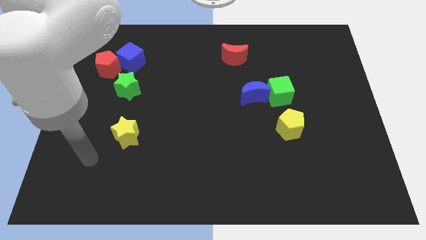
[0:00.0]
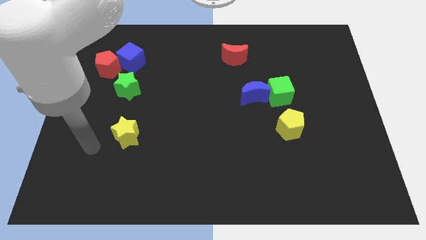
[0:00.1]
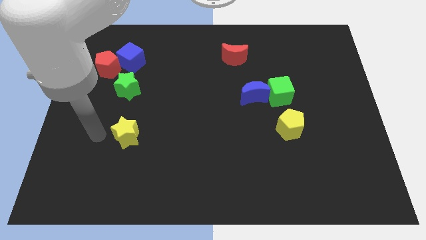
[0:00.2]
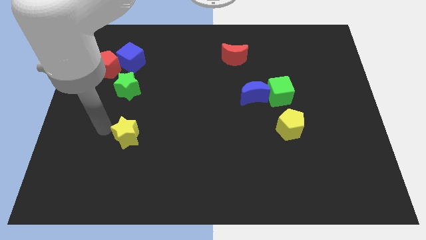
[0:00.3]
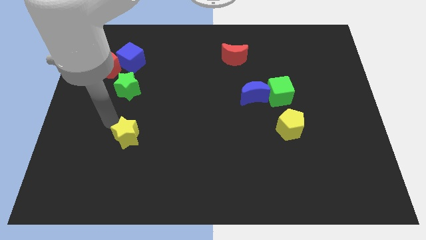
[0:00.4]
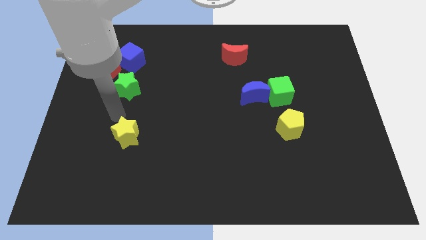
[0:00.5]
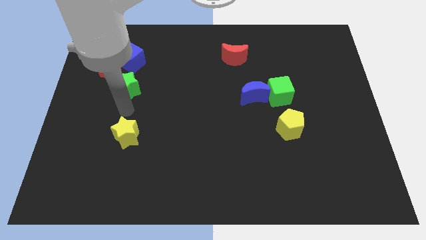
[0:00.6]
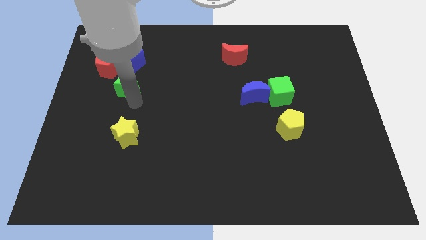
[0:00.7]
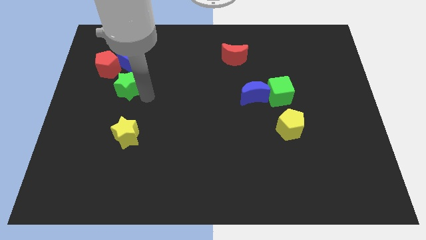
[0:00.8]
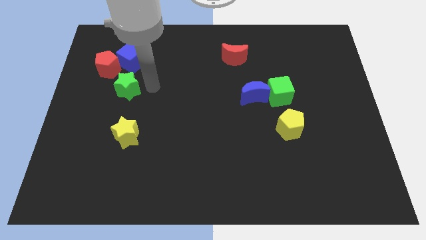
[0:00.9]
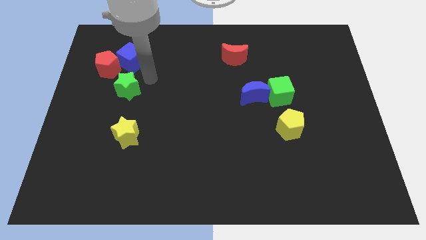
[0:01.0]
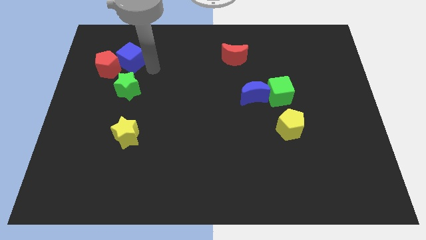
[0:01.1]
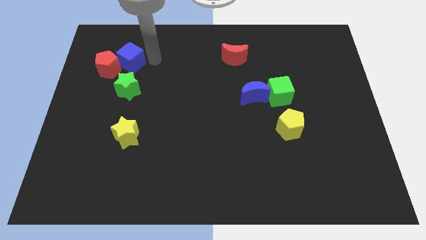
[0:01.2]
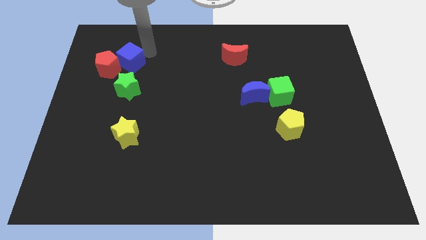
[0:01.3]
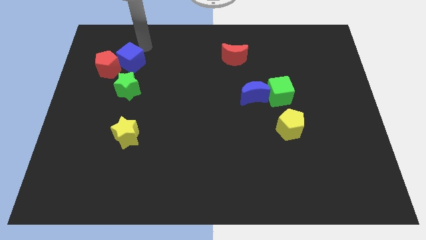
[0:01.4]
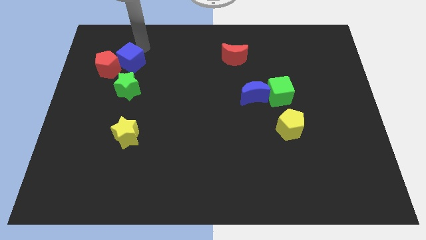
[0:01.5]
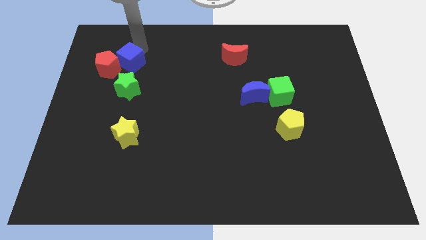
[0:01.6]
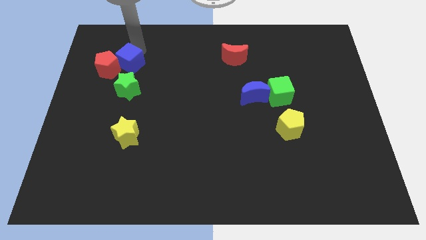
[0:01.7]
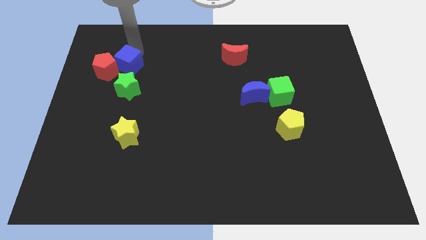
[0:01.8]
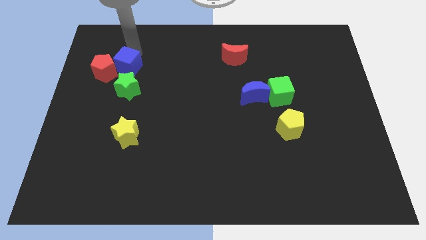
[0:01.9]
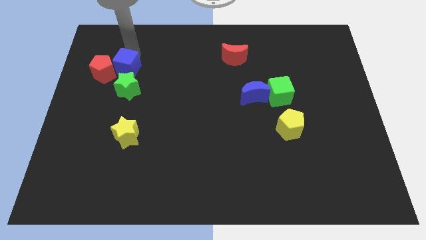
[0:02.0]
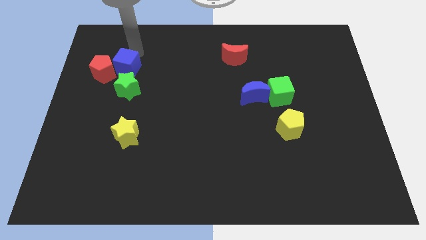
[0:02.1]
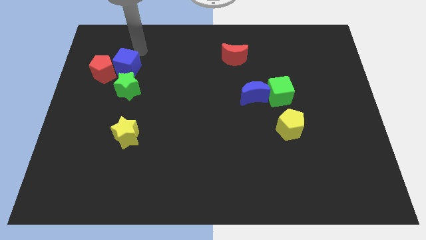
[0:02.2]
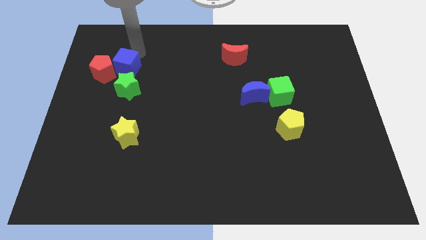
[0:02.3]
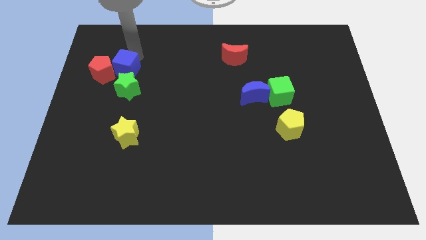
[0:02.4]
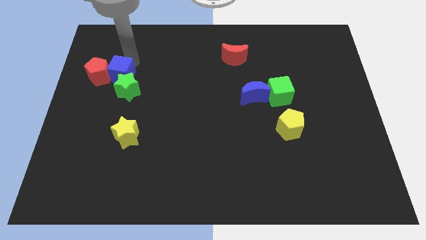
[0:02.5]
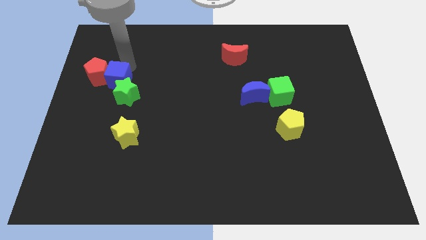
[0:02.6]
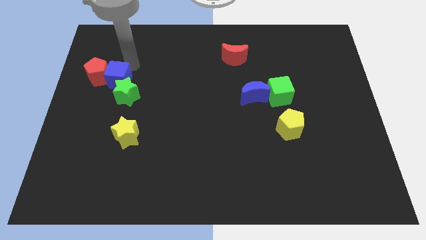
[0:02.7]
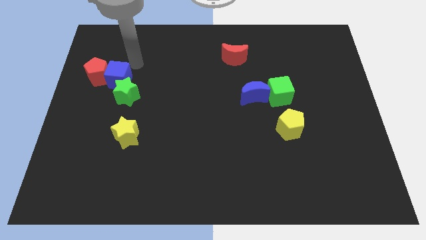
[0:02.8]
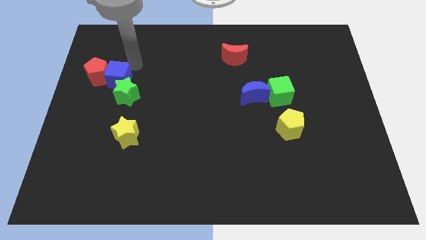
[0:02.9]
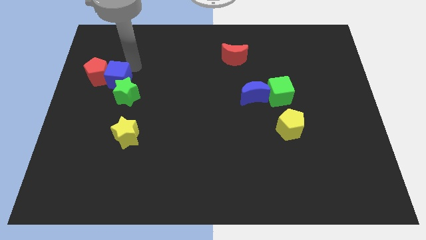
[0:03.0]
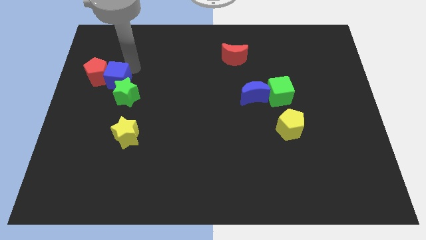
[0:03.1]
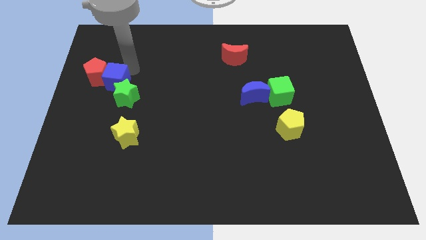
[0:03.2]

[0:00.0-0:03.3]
move the blue cube slightly down

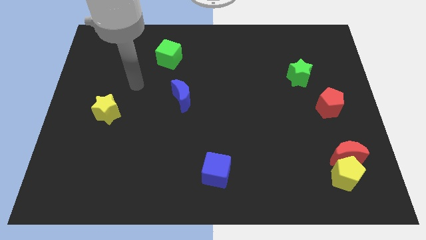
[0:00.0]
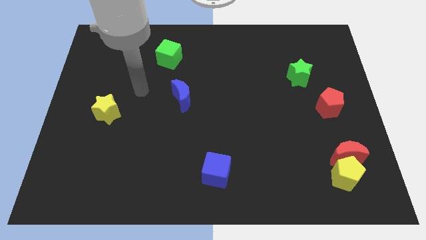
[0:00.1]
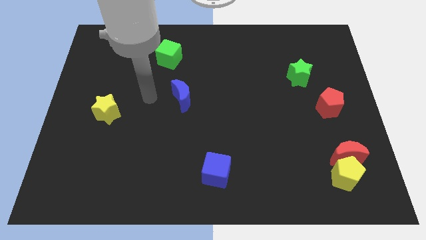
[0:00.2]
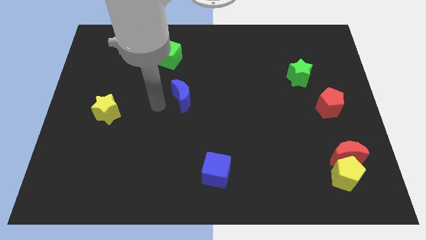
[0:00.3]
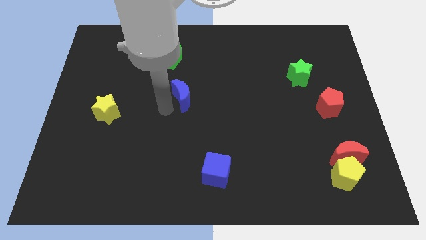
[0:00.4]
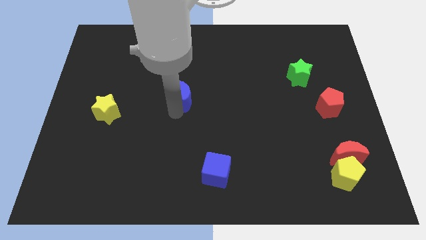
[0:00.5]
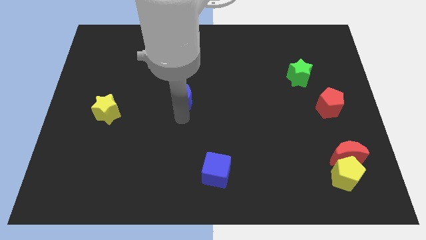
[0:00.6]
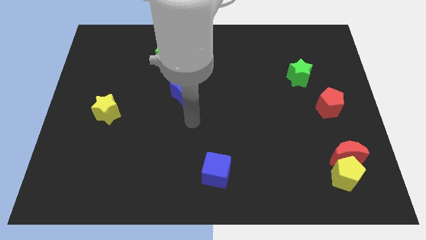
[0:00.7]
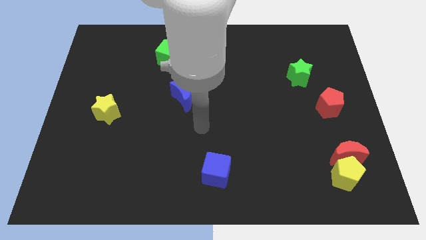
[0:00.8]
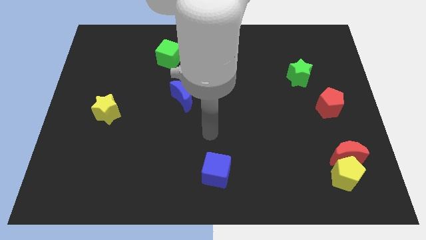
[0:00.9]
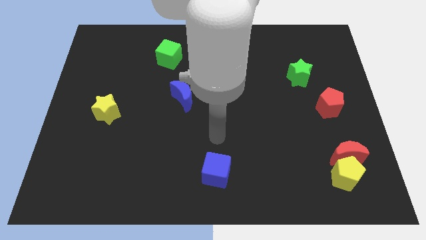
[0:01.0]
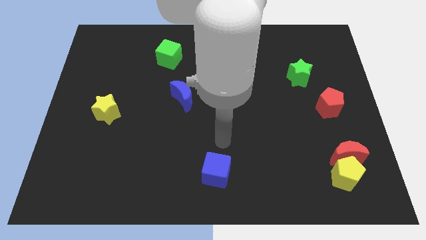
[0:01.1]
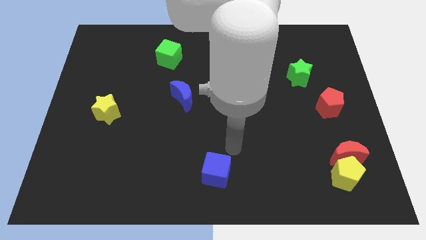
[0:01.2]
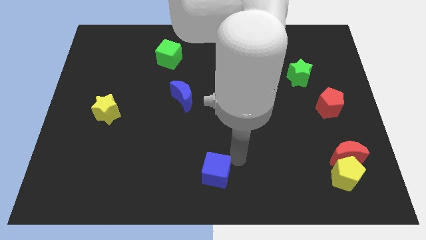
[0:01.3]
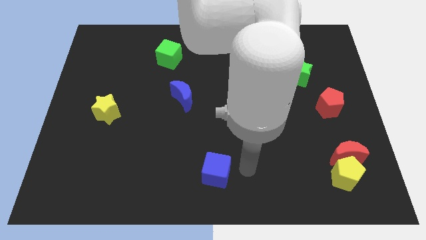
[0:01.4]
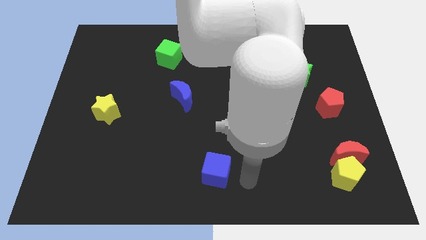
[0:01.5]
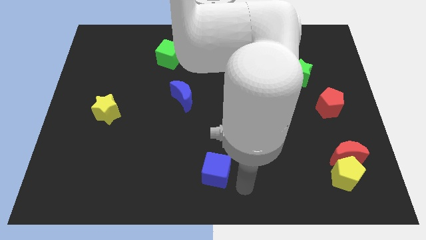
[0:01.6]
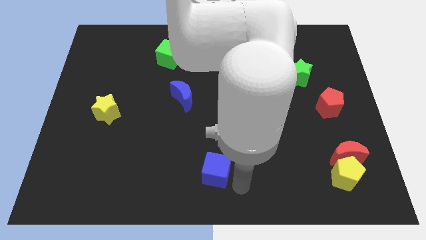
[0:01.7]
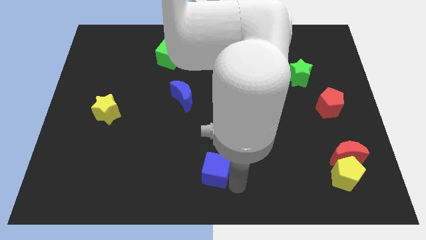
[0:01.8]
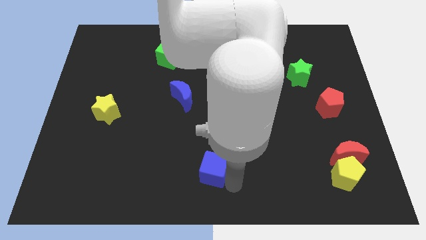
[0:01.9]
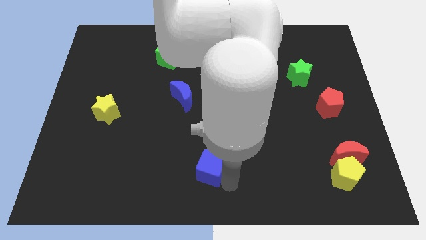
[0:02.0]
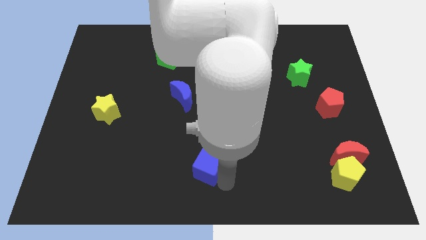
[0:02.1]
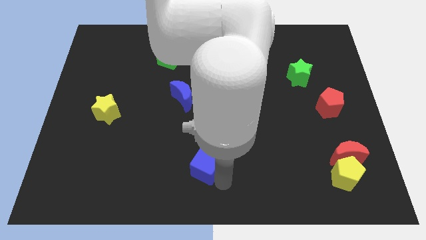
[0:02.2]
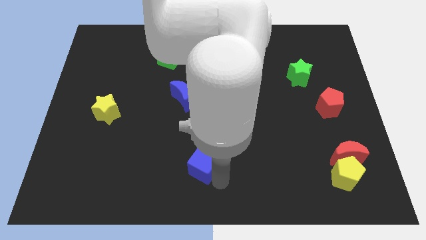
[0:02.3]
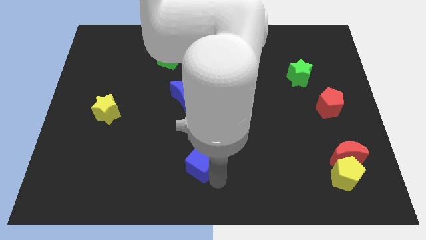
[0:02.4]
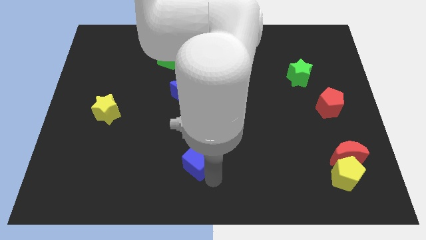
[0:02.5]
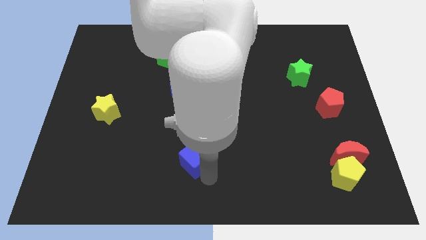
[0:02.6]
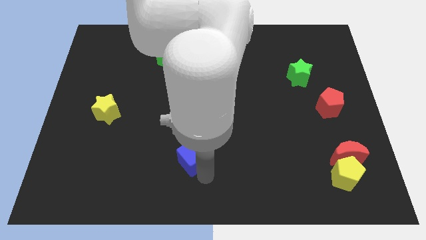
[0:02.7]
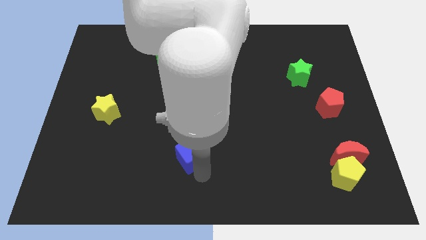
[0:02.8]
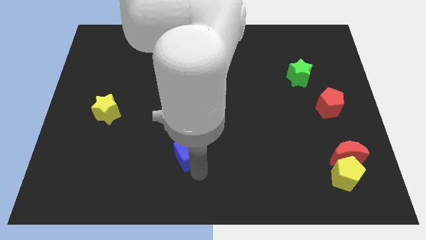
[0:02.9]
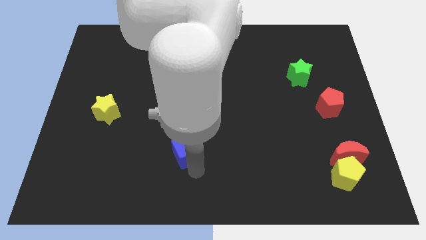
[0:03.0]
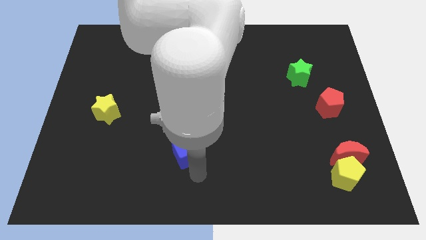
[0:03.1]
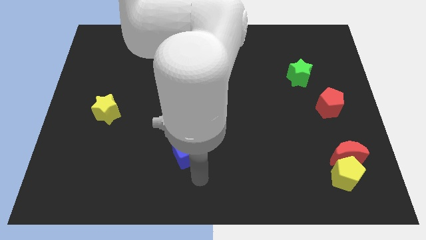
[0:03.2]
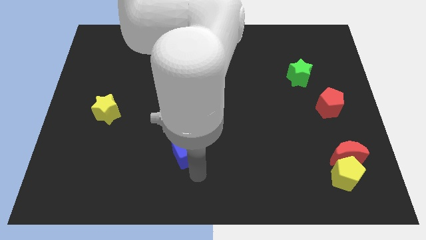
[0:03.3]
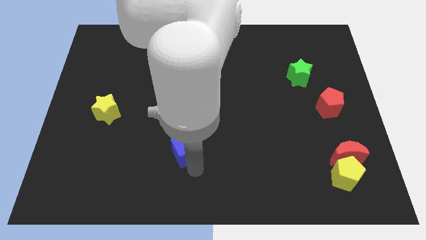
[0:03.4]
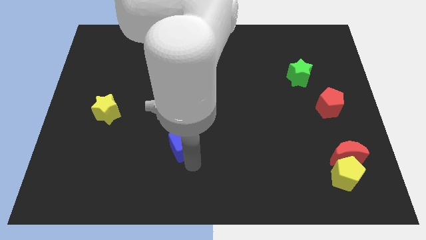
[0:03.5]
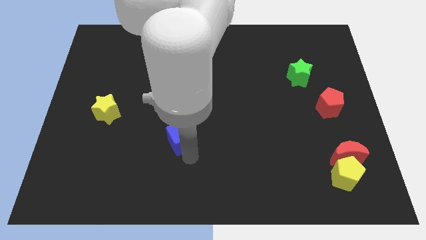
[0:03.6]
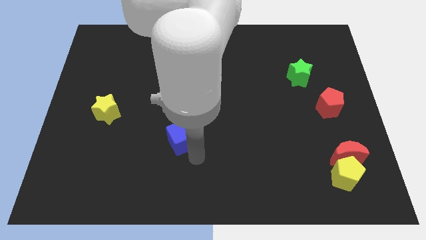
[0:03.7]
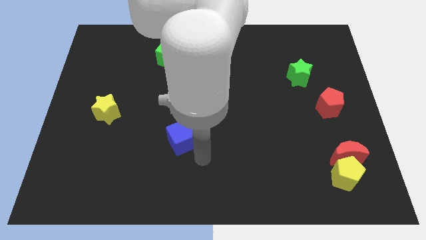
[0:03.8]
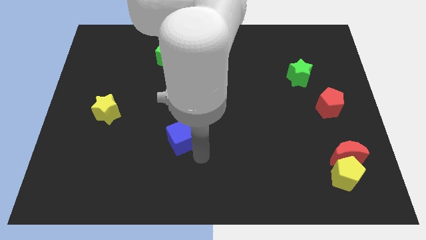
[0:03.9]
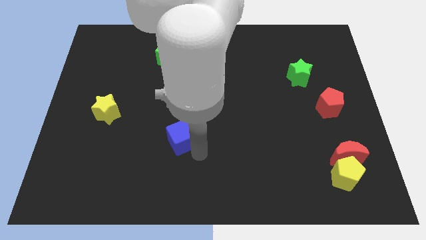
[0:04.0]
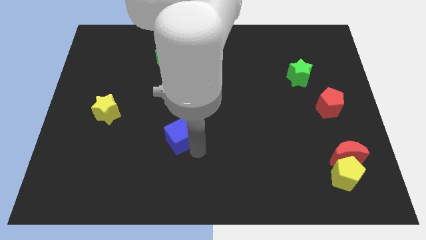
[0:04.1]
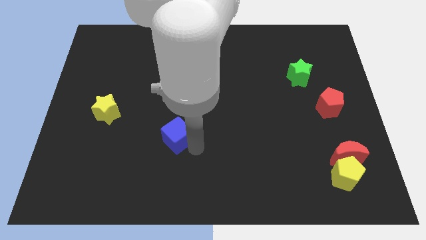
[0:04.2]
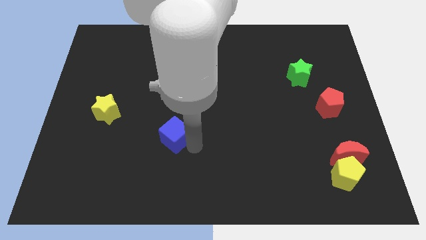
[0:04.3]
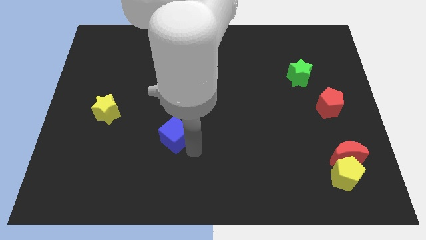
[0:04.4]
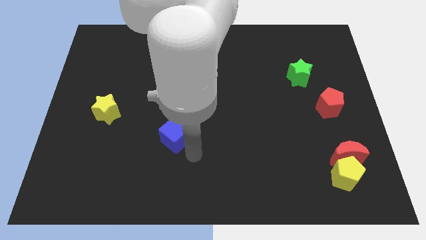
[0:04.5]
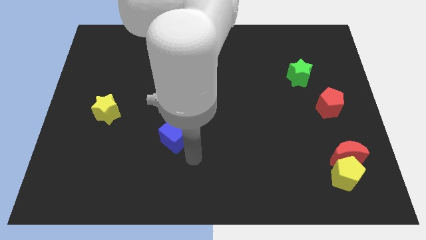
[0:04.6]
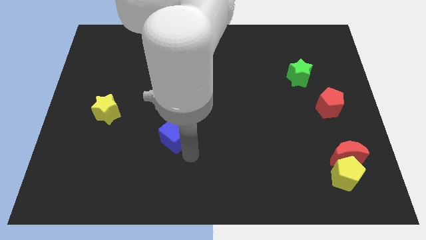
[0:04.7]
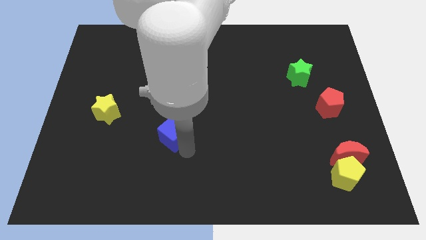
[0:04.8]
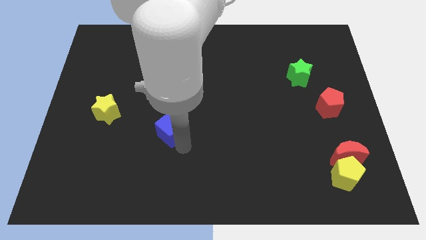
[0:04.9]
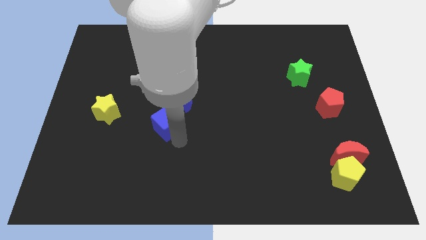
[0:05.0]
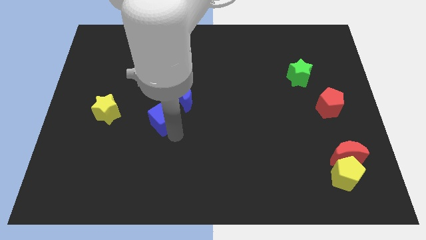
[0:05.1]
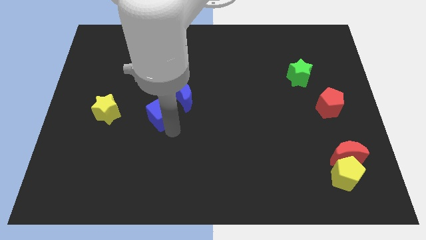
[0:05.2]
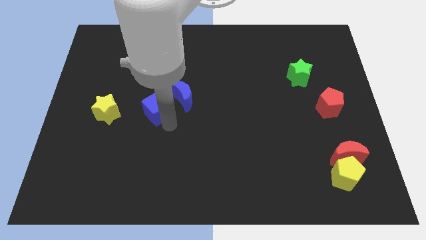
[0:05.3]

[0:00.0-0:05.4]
move the blue cube up and left diagonally
